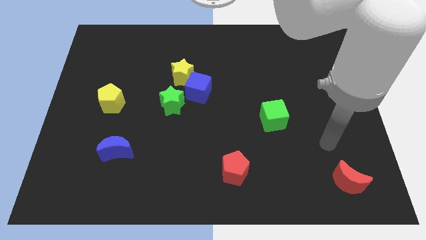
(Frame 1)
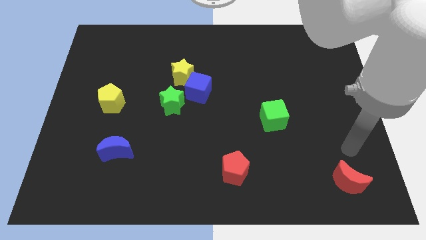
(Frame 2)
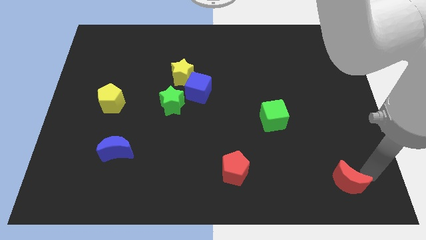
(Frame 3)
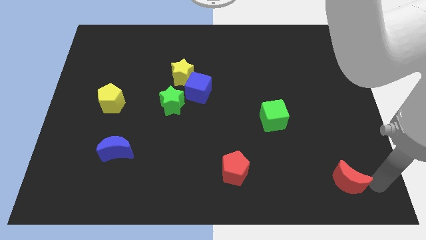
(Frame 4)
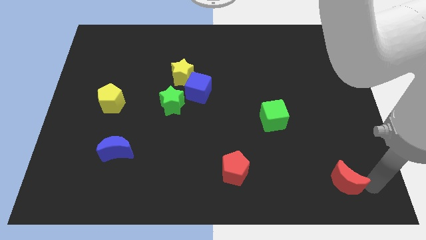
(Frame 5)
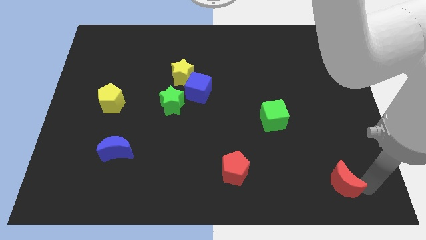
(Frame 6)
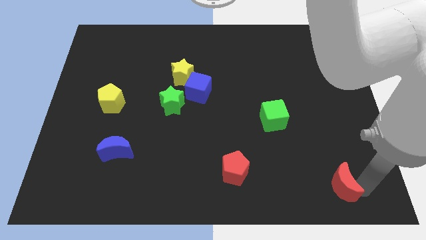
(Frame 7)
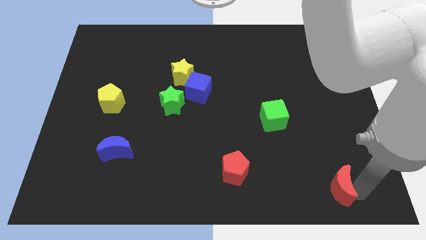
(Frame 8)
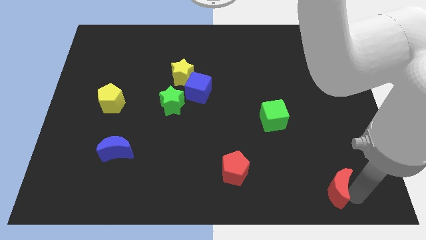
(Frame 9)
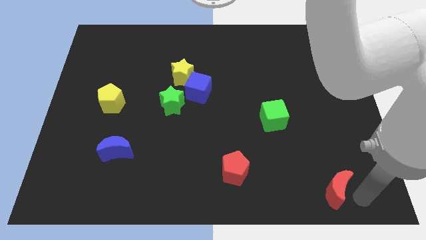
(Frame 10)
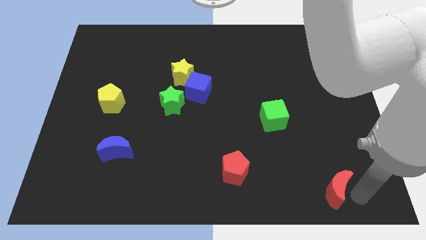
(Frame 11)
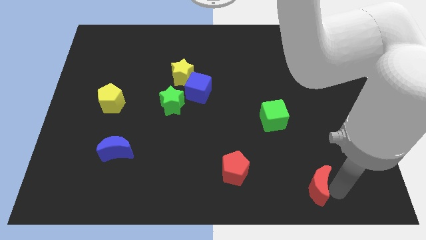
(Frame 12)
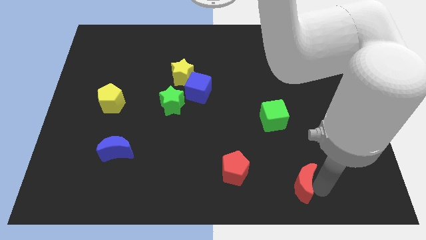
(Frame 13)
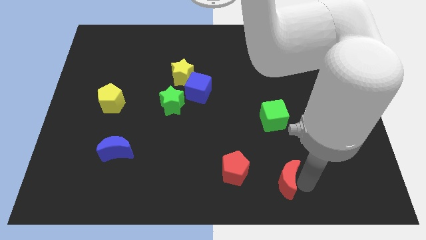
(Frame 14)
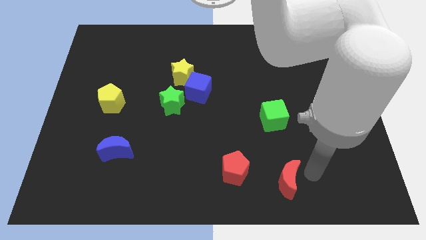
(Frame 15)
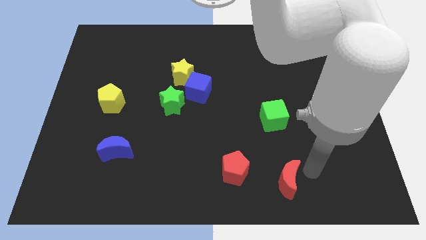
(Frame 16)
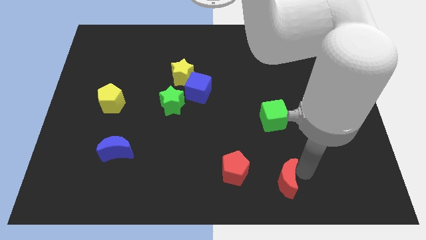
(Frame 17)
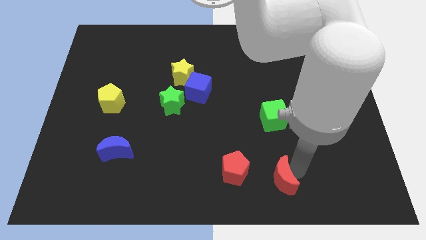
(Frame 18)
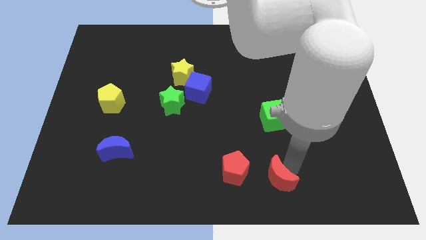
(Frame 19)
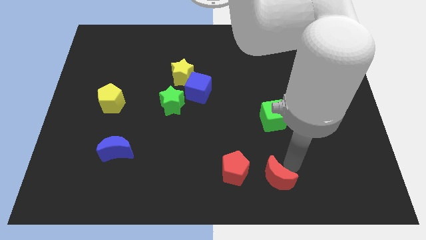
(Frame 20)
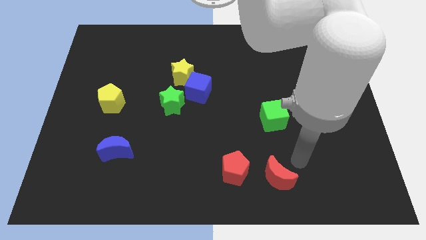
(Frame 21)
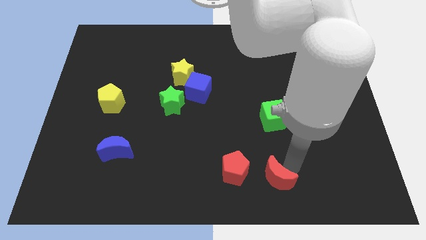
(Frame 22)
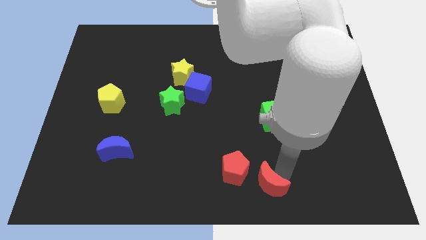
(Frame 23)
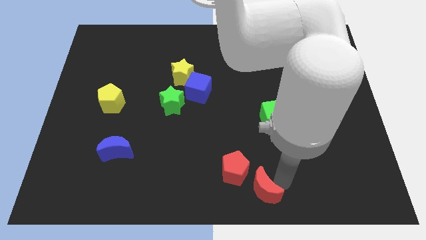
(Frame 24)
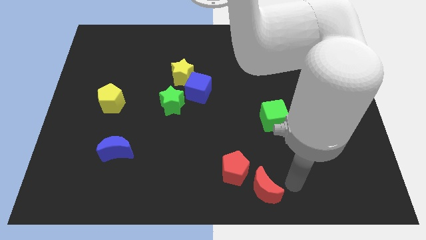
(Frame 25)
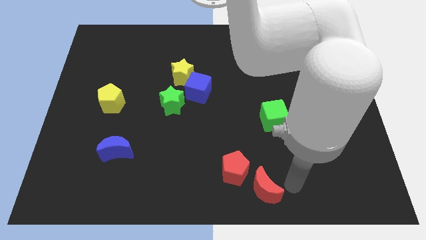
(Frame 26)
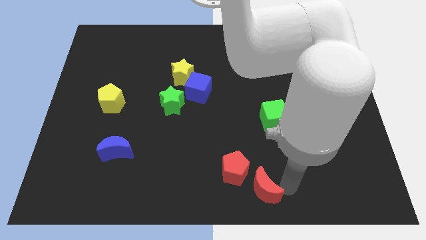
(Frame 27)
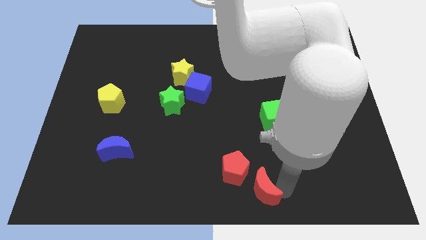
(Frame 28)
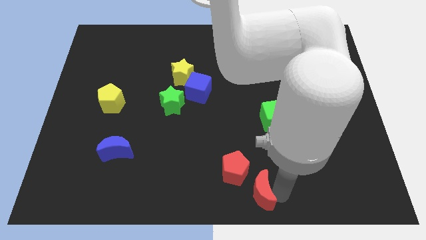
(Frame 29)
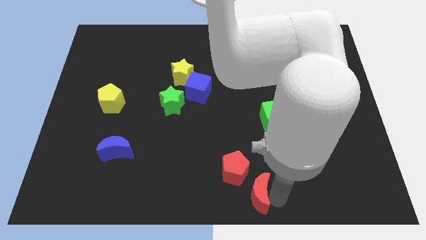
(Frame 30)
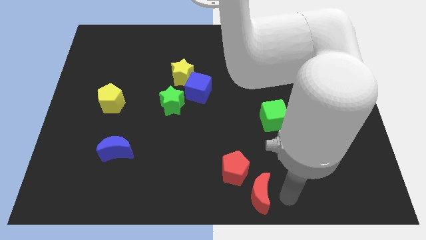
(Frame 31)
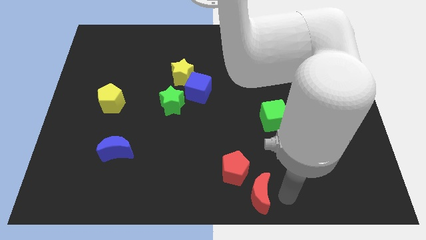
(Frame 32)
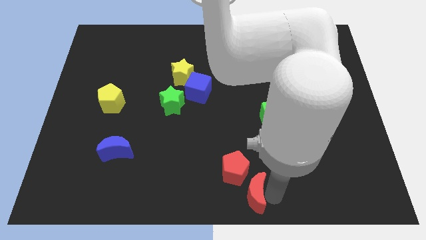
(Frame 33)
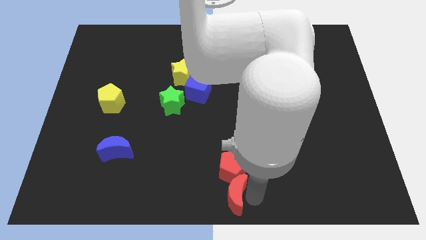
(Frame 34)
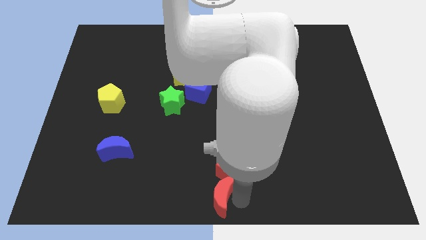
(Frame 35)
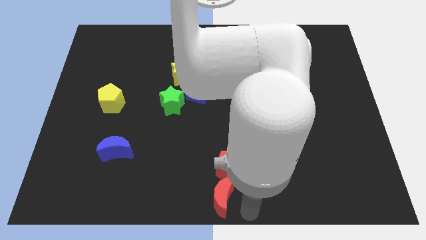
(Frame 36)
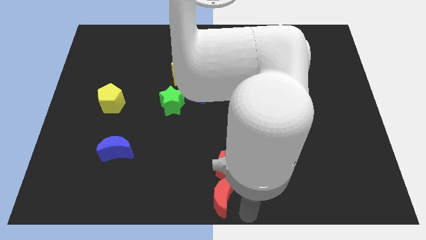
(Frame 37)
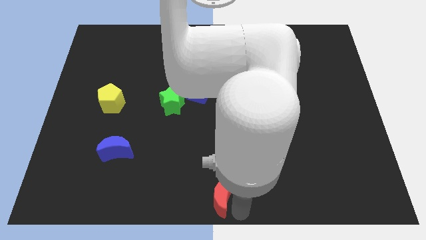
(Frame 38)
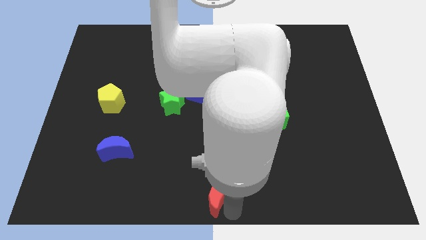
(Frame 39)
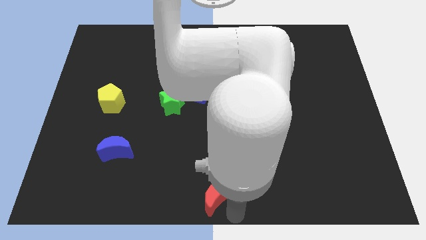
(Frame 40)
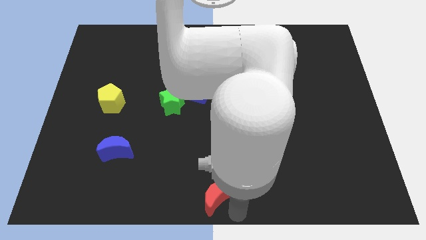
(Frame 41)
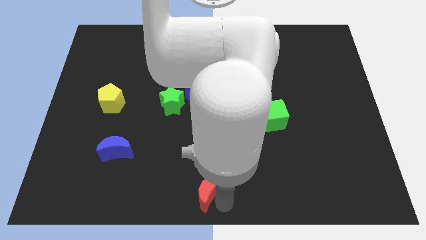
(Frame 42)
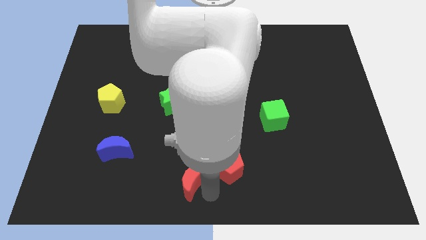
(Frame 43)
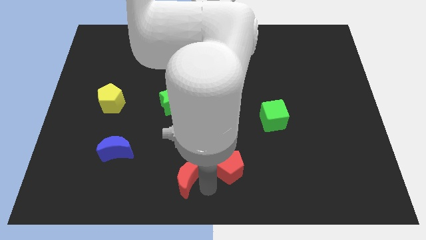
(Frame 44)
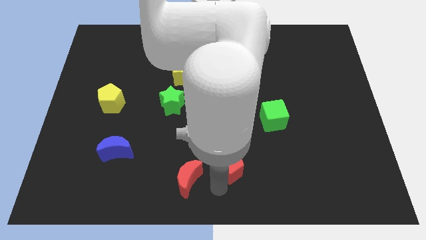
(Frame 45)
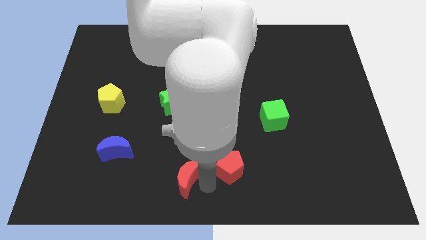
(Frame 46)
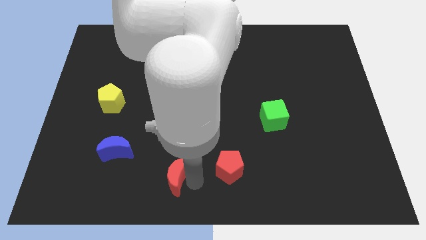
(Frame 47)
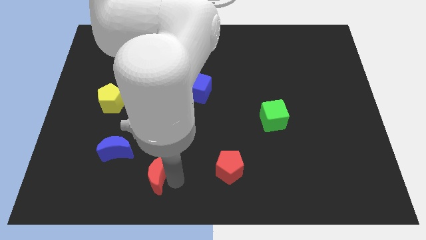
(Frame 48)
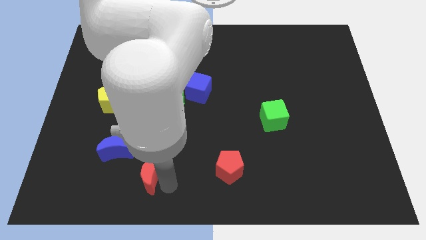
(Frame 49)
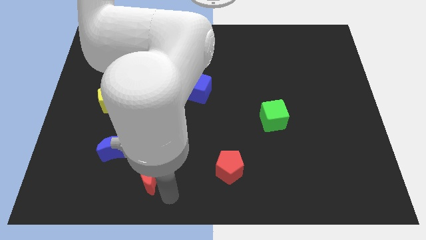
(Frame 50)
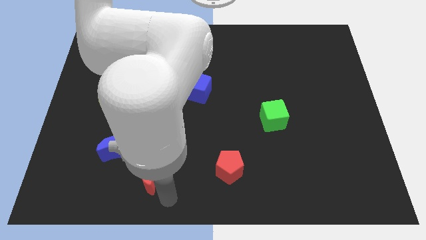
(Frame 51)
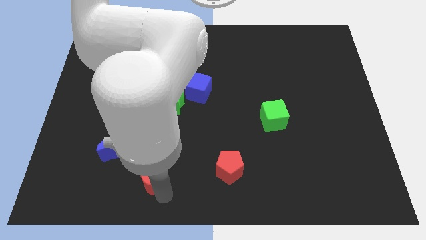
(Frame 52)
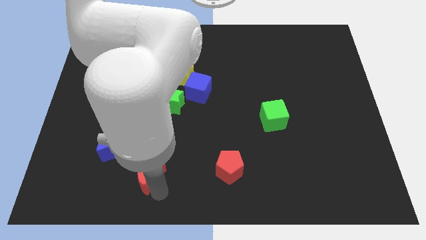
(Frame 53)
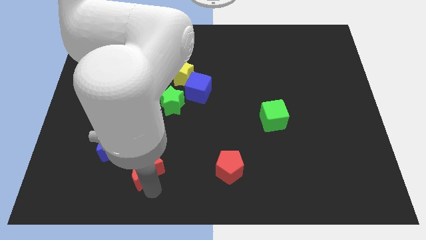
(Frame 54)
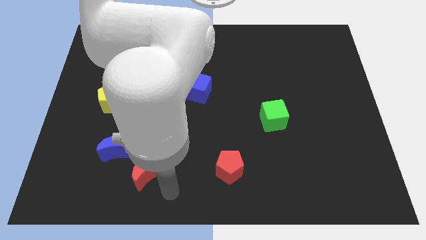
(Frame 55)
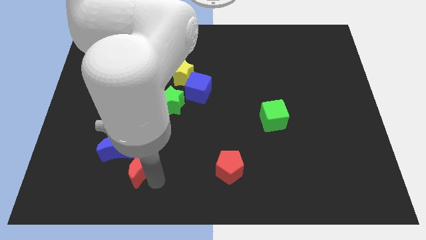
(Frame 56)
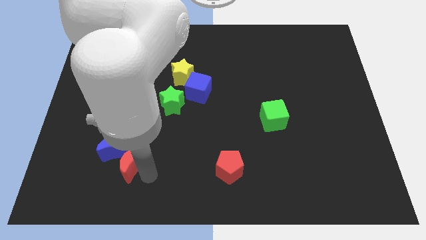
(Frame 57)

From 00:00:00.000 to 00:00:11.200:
move the red moon towards the blue moon

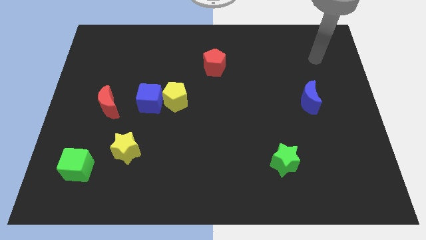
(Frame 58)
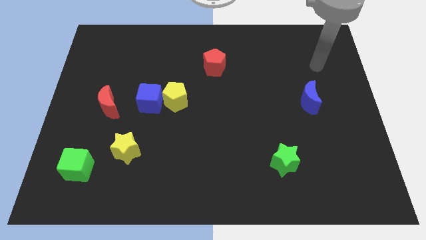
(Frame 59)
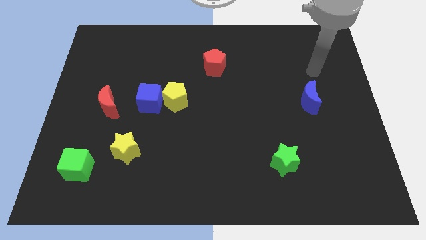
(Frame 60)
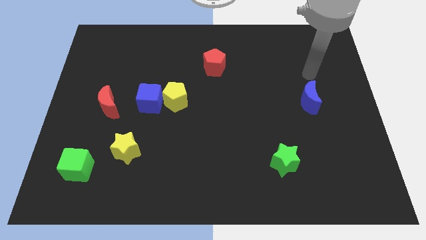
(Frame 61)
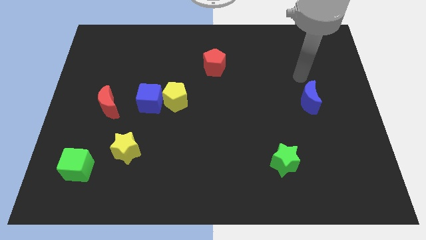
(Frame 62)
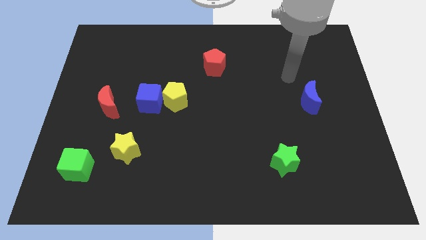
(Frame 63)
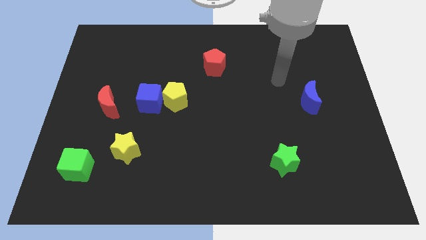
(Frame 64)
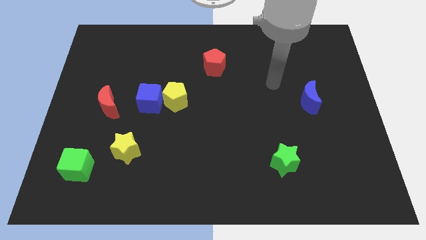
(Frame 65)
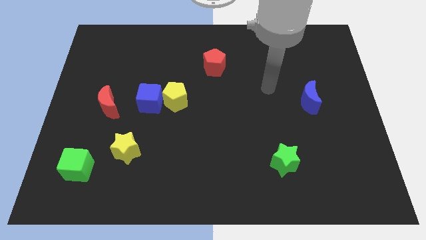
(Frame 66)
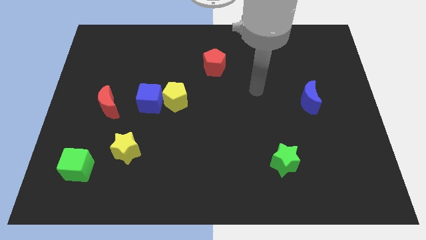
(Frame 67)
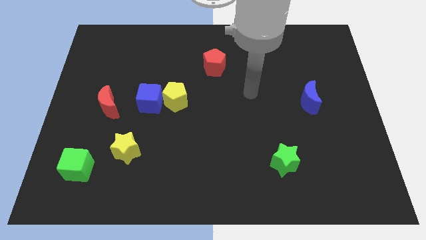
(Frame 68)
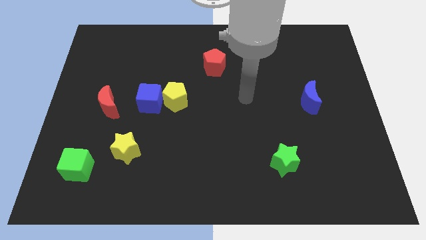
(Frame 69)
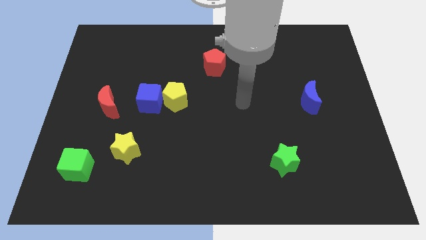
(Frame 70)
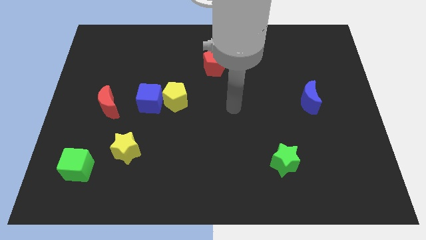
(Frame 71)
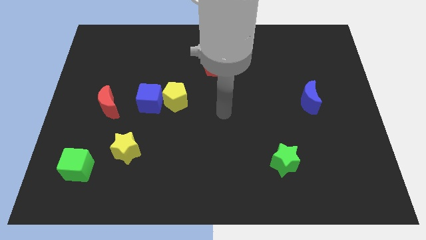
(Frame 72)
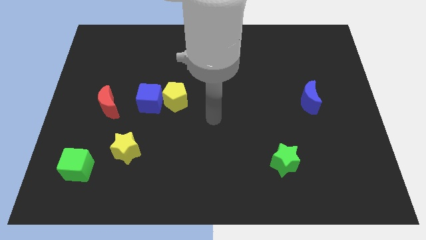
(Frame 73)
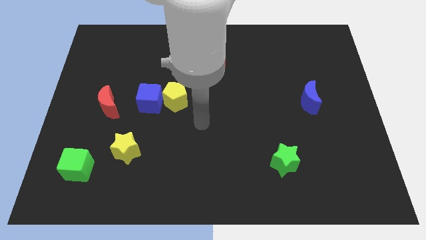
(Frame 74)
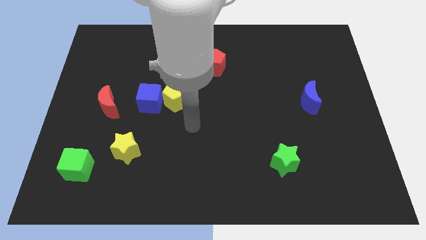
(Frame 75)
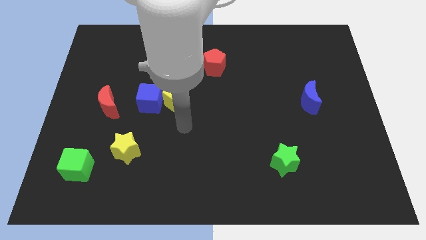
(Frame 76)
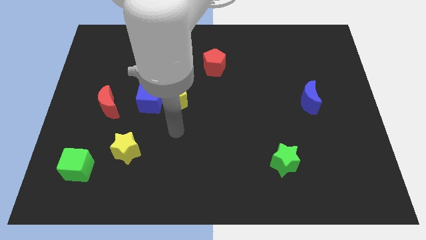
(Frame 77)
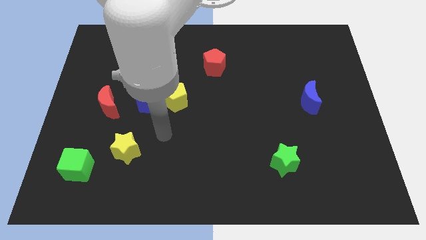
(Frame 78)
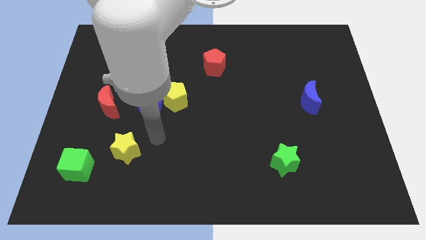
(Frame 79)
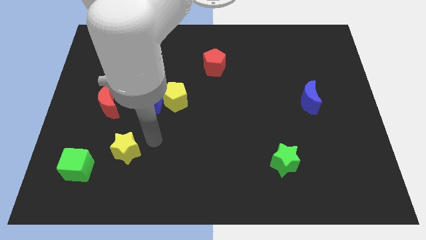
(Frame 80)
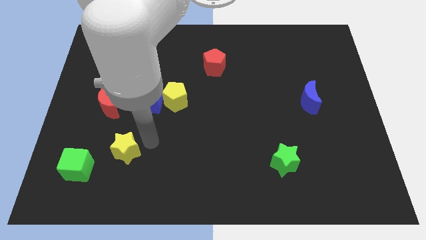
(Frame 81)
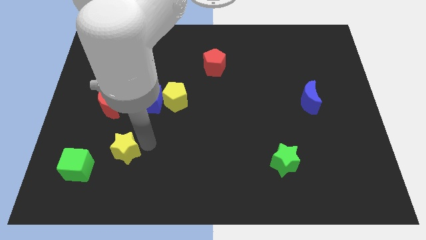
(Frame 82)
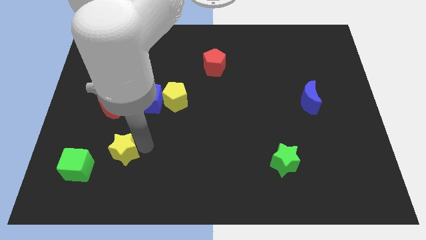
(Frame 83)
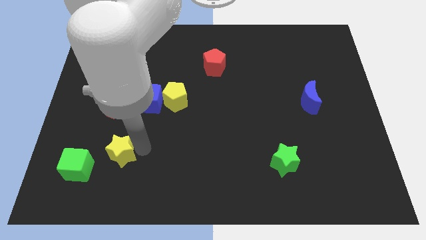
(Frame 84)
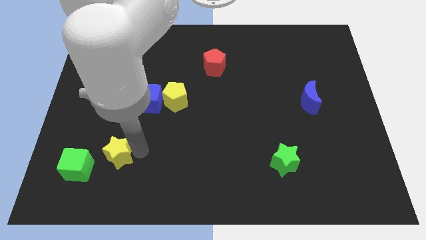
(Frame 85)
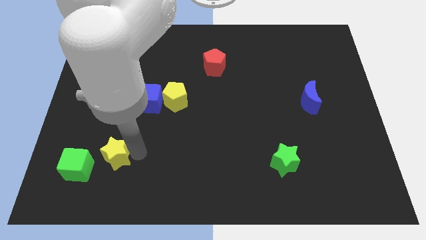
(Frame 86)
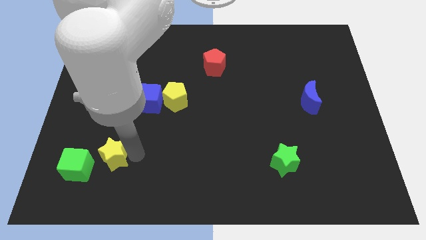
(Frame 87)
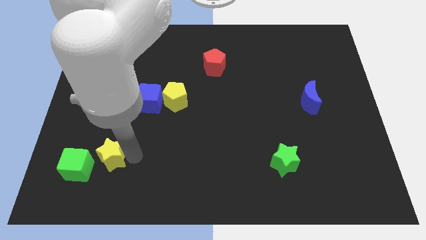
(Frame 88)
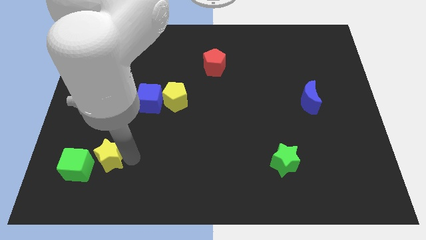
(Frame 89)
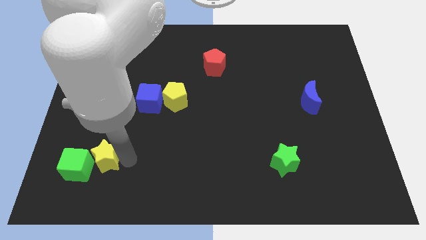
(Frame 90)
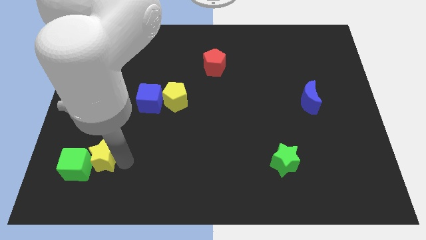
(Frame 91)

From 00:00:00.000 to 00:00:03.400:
push the yellow star next to the green cube
